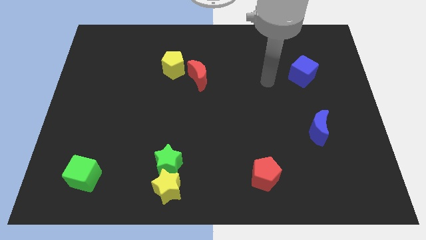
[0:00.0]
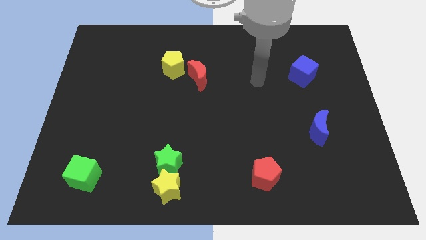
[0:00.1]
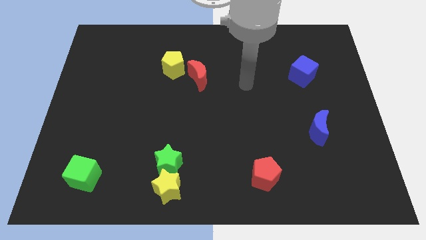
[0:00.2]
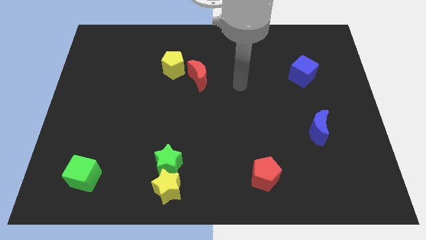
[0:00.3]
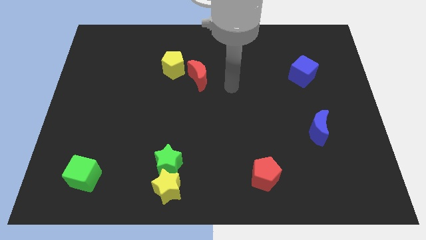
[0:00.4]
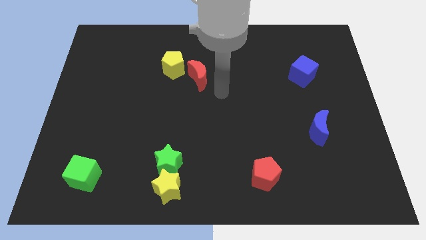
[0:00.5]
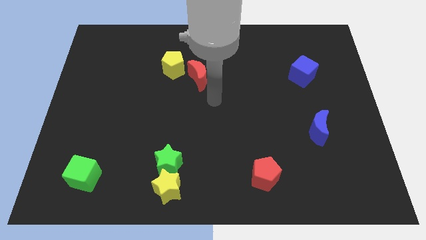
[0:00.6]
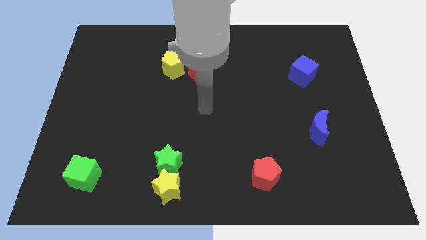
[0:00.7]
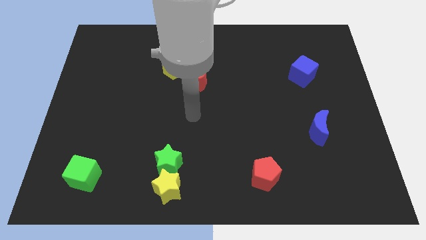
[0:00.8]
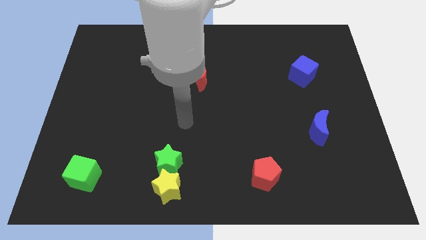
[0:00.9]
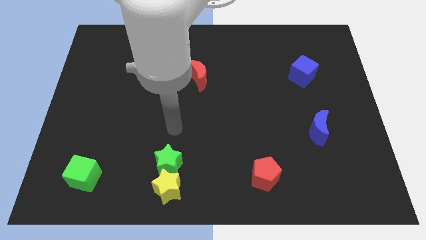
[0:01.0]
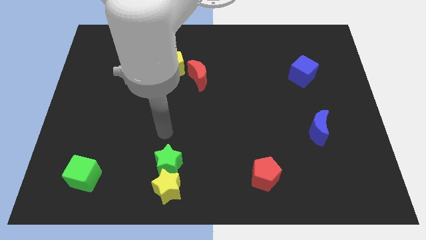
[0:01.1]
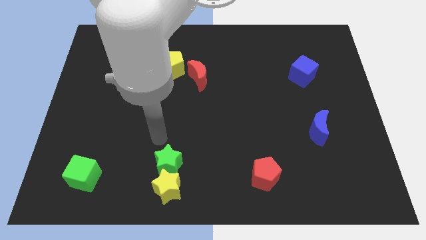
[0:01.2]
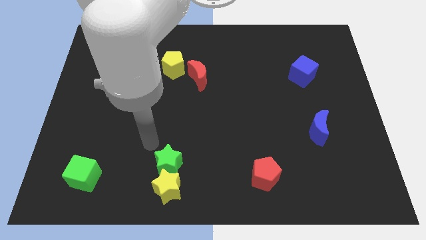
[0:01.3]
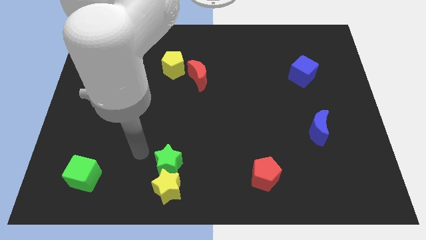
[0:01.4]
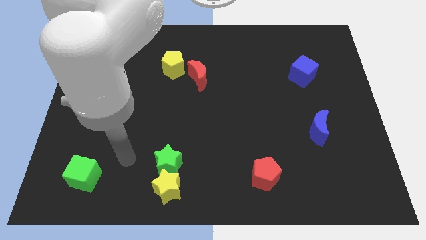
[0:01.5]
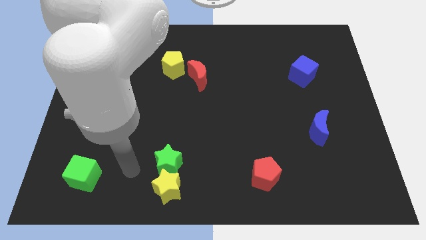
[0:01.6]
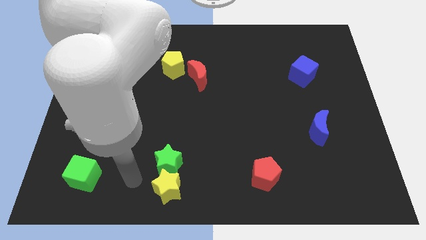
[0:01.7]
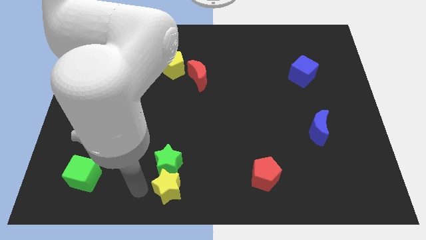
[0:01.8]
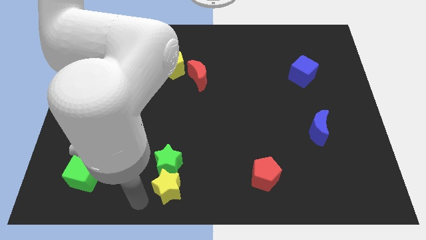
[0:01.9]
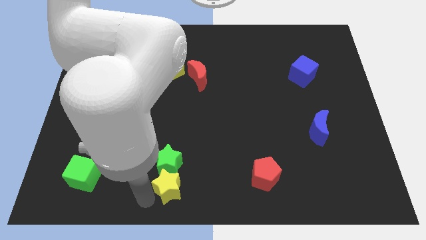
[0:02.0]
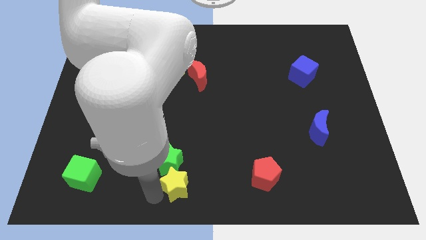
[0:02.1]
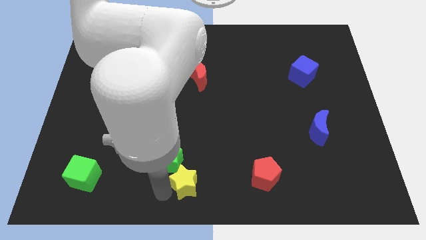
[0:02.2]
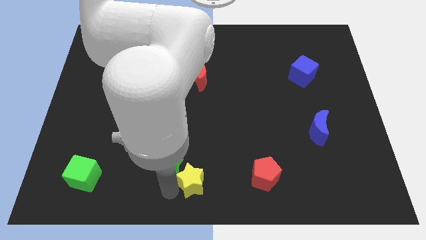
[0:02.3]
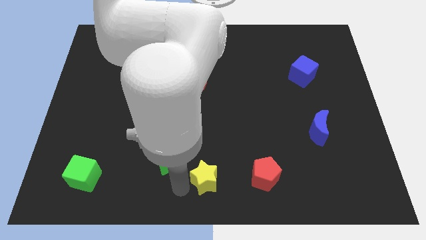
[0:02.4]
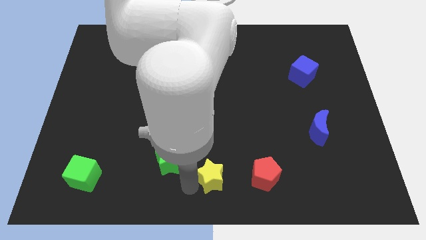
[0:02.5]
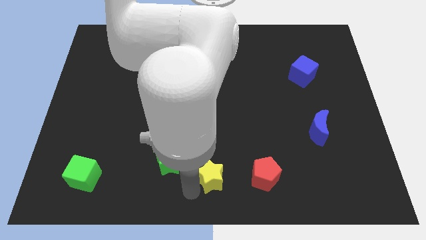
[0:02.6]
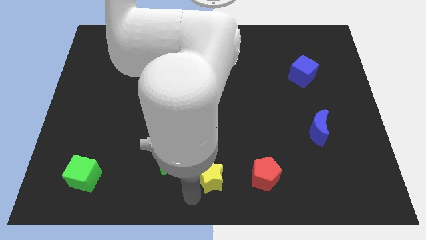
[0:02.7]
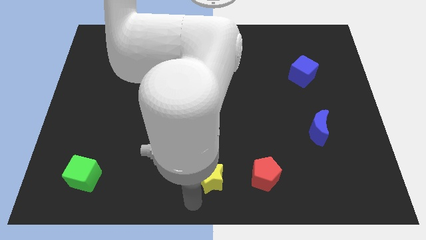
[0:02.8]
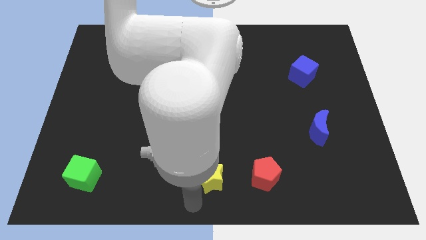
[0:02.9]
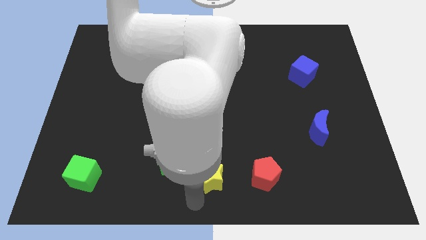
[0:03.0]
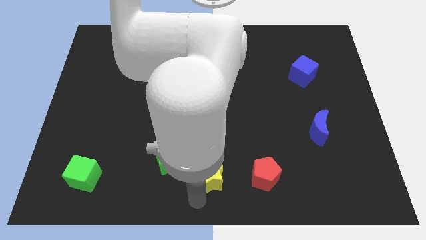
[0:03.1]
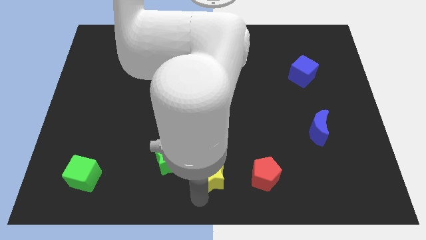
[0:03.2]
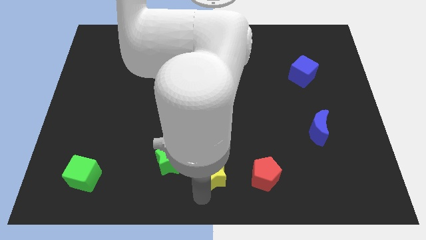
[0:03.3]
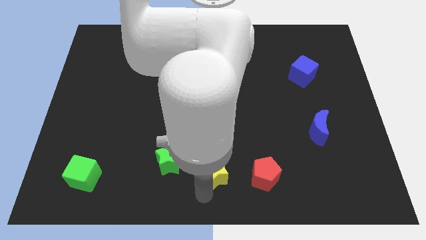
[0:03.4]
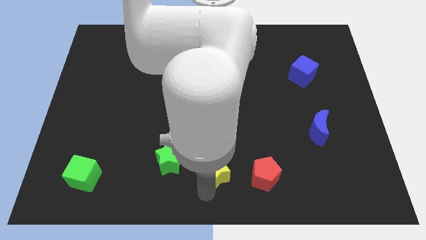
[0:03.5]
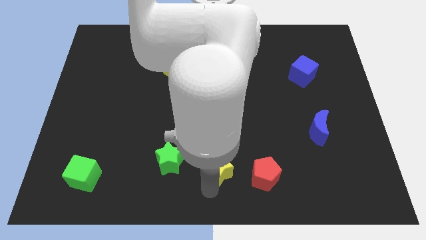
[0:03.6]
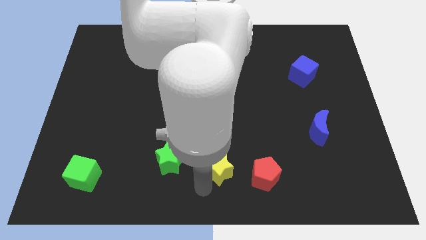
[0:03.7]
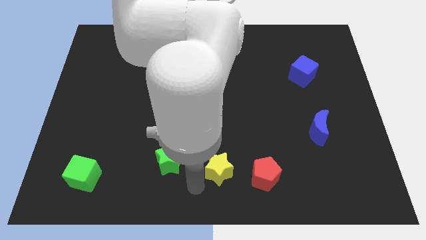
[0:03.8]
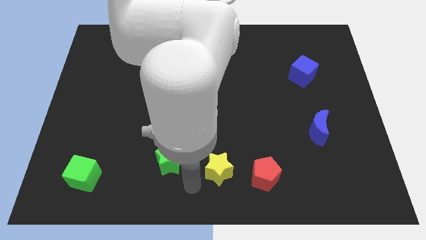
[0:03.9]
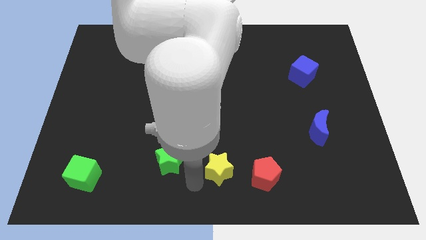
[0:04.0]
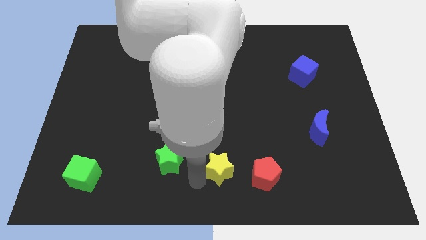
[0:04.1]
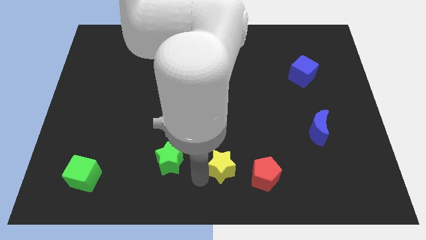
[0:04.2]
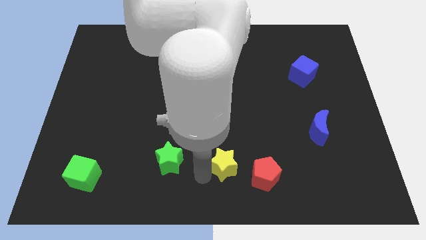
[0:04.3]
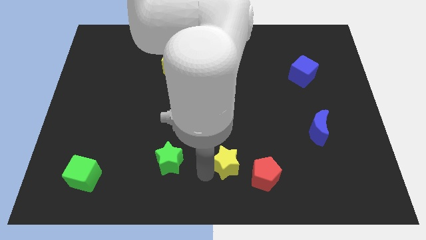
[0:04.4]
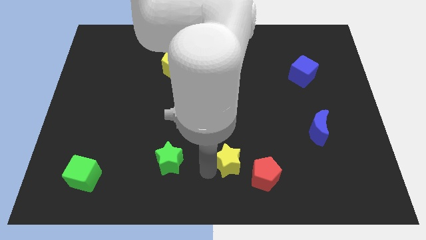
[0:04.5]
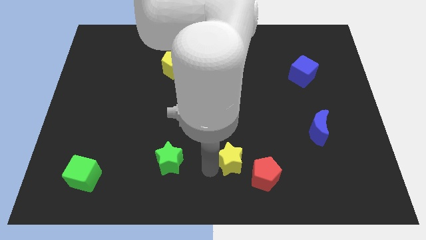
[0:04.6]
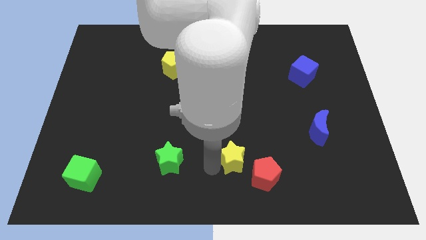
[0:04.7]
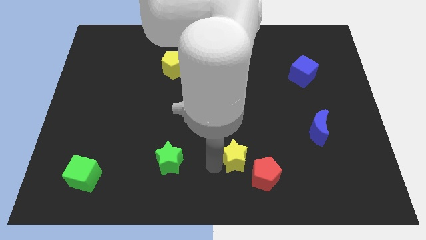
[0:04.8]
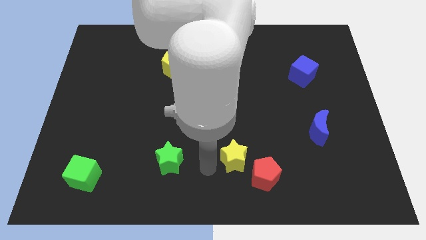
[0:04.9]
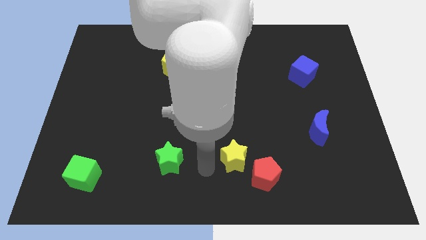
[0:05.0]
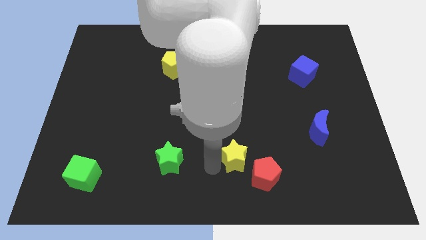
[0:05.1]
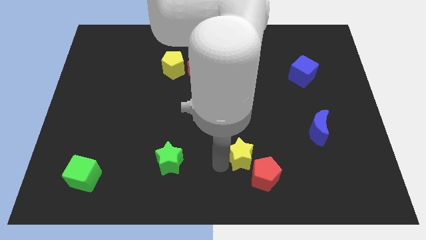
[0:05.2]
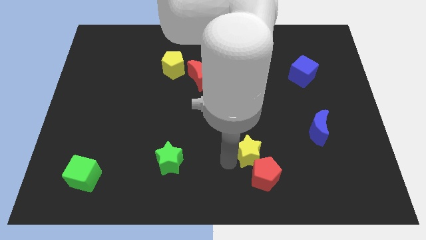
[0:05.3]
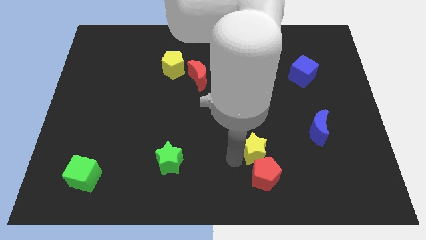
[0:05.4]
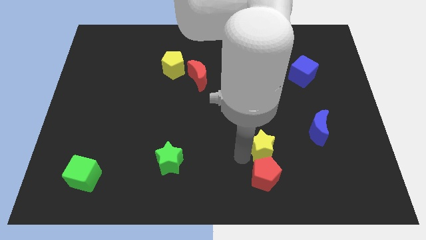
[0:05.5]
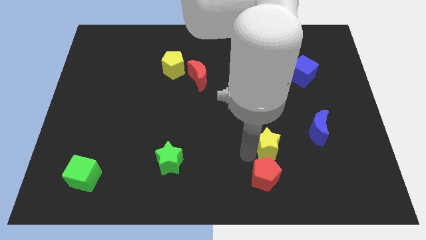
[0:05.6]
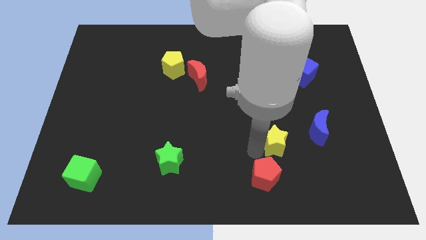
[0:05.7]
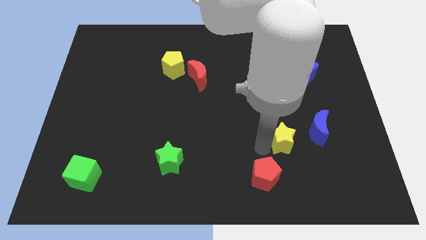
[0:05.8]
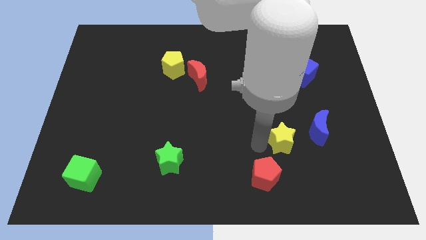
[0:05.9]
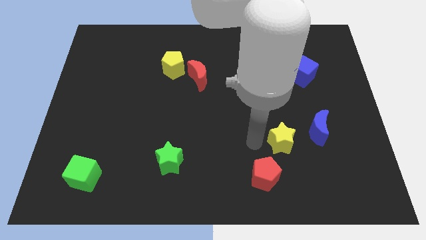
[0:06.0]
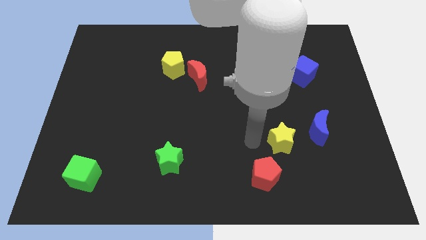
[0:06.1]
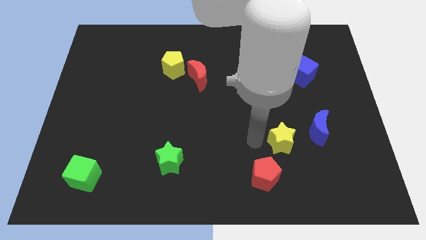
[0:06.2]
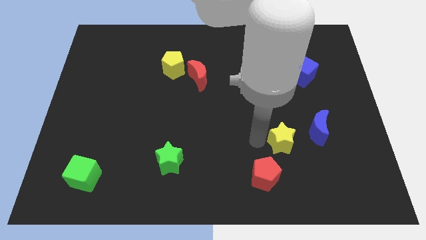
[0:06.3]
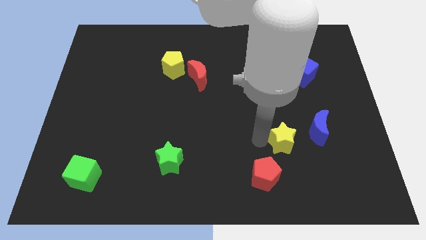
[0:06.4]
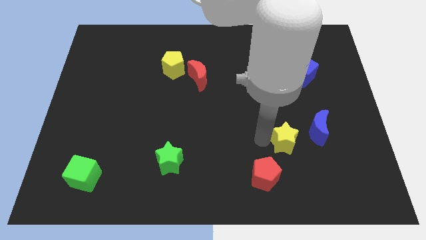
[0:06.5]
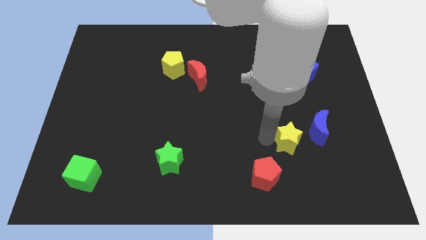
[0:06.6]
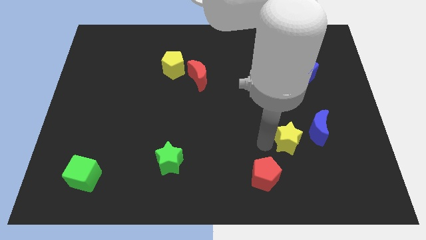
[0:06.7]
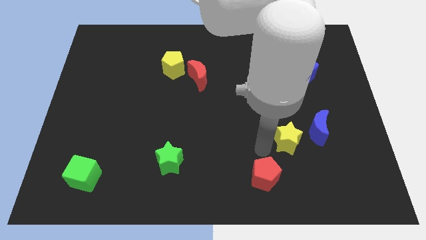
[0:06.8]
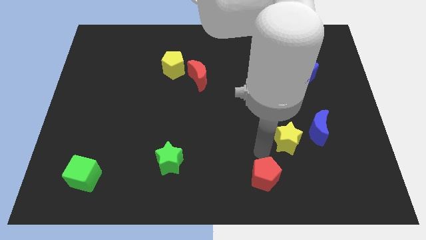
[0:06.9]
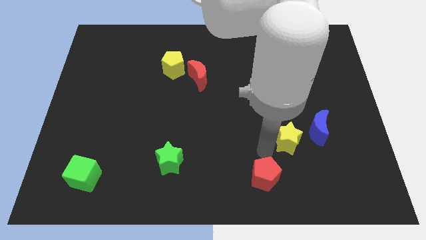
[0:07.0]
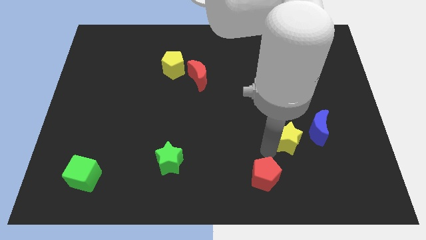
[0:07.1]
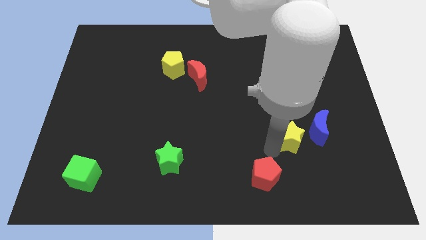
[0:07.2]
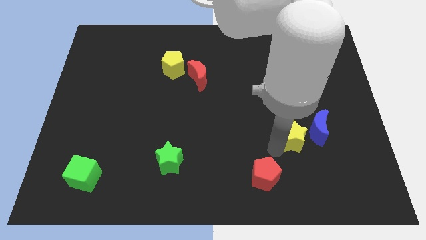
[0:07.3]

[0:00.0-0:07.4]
slide the yellow star to the blue moon
